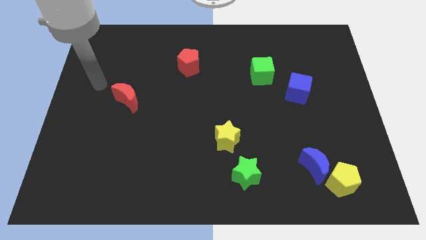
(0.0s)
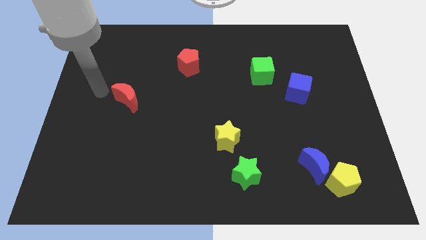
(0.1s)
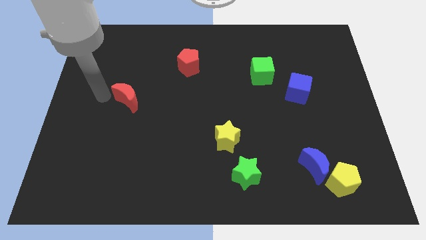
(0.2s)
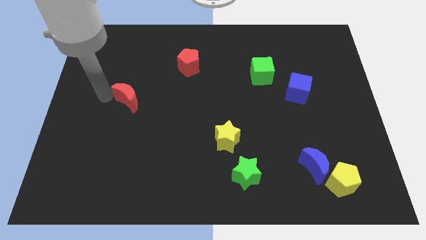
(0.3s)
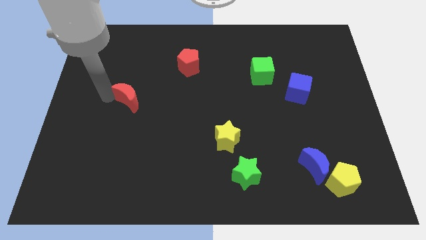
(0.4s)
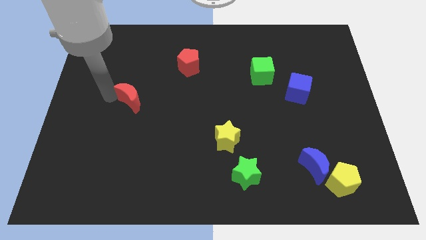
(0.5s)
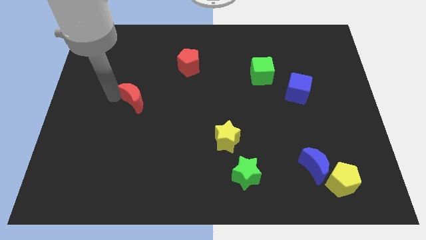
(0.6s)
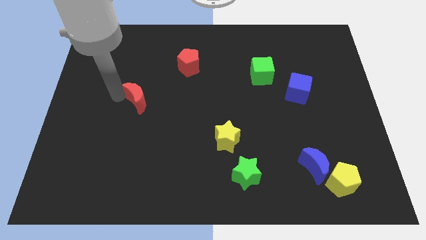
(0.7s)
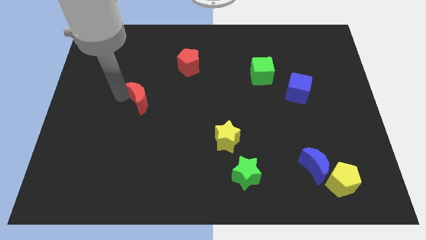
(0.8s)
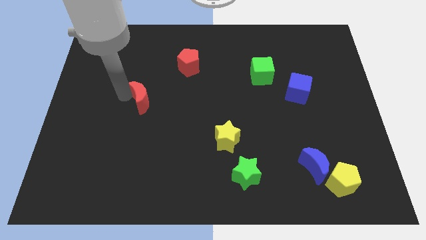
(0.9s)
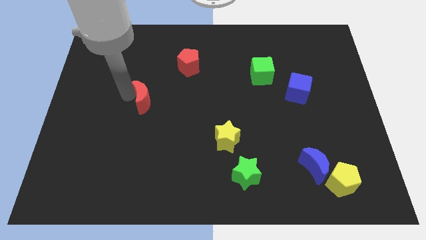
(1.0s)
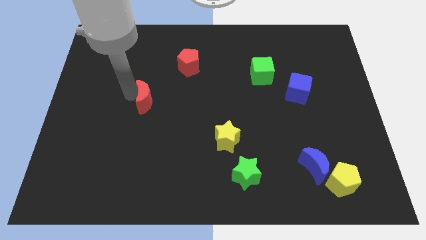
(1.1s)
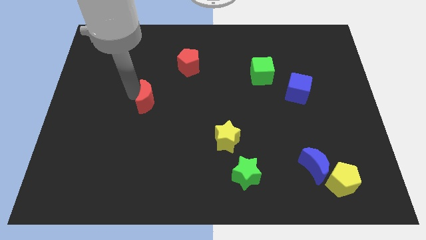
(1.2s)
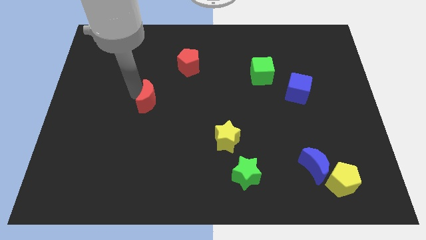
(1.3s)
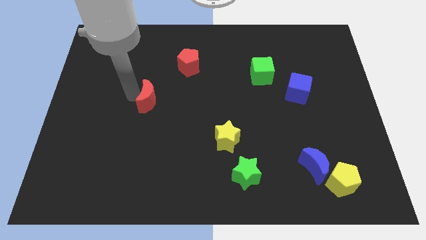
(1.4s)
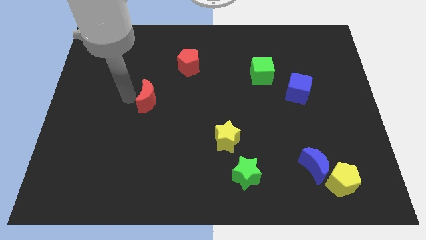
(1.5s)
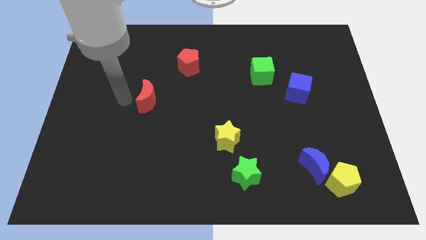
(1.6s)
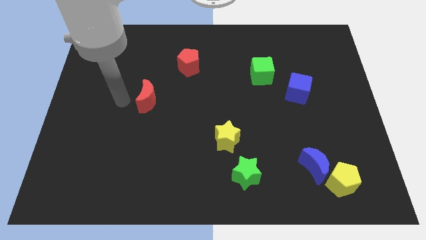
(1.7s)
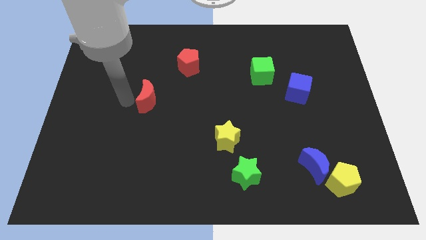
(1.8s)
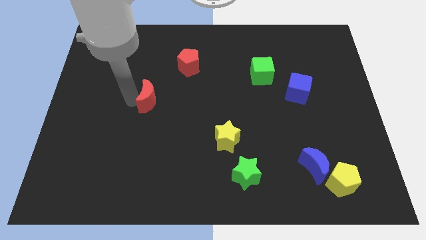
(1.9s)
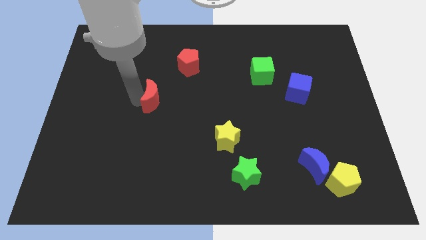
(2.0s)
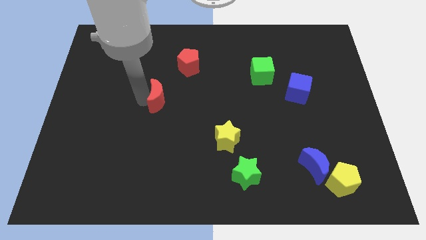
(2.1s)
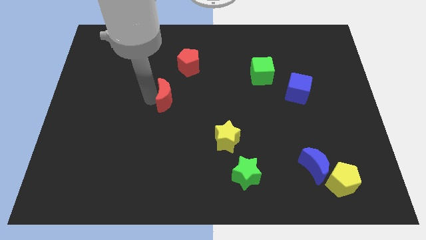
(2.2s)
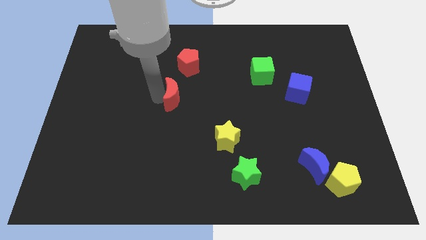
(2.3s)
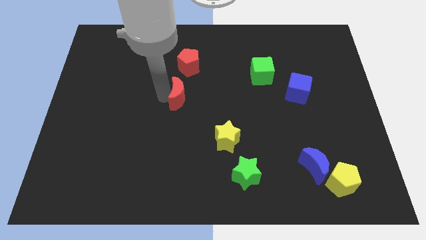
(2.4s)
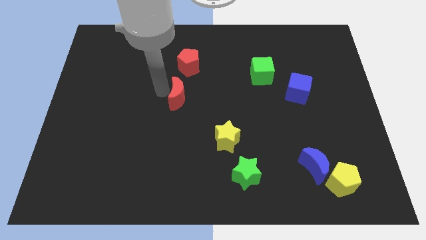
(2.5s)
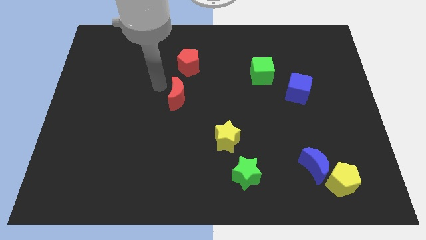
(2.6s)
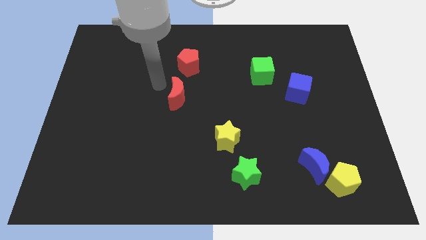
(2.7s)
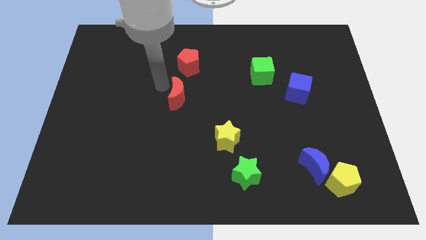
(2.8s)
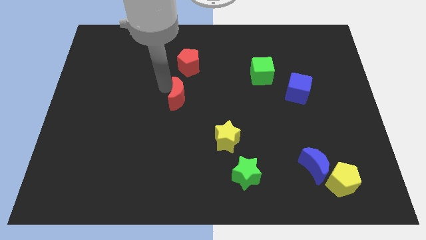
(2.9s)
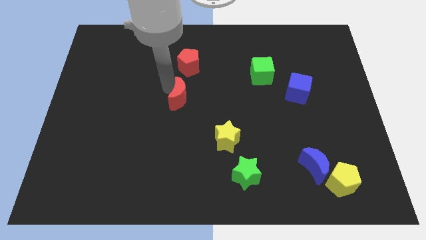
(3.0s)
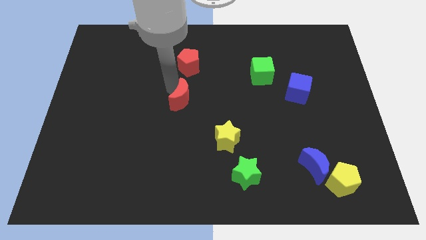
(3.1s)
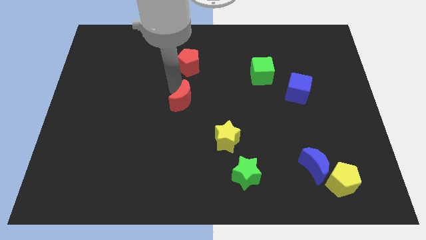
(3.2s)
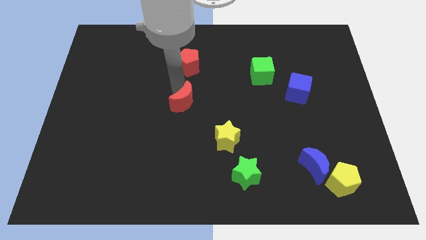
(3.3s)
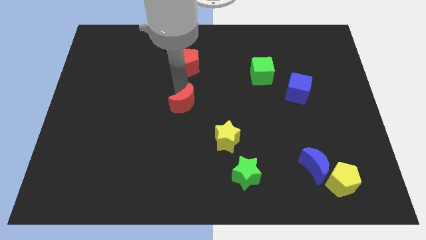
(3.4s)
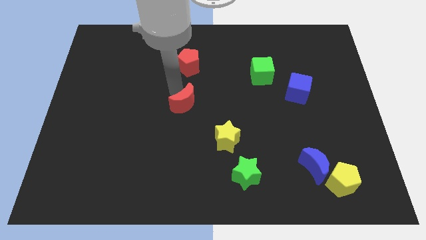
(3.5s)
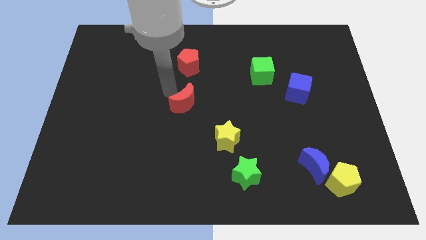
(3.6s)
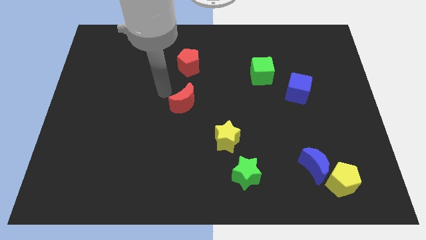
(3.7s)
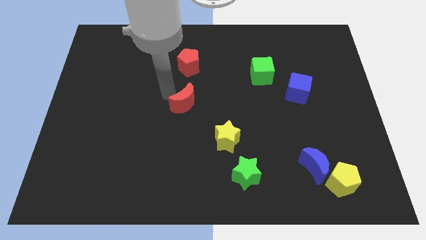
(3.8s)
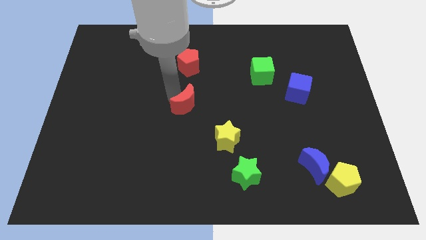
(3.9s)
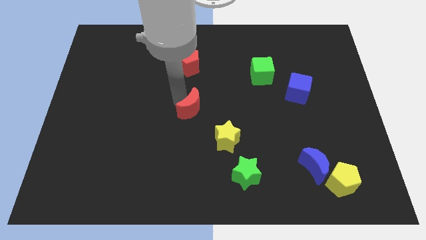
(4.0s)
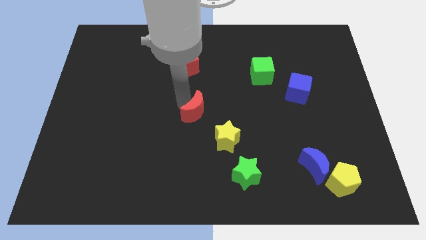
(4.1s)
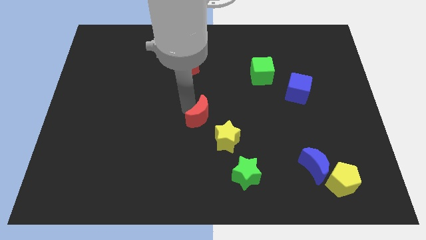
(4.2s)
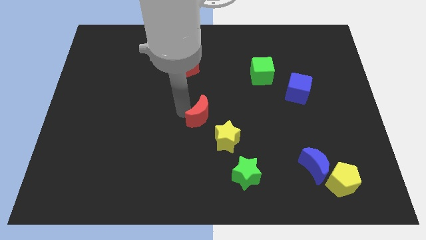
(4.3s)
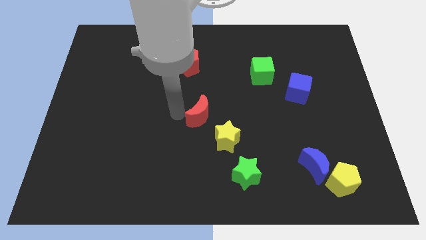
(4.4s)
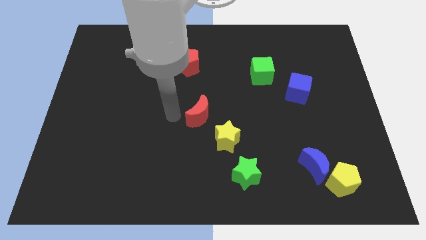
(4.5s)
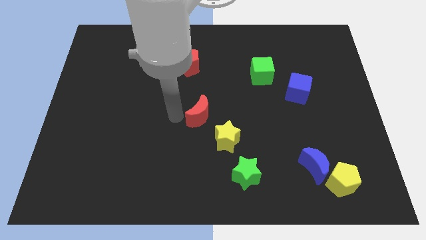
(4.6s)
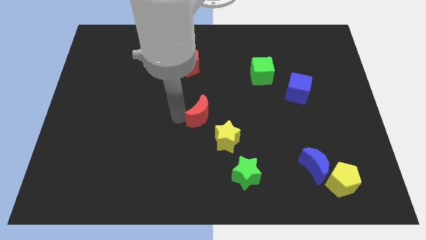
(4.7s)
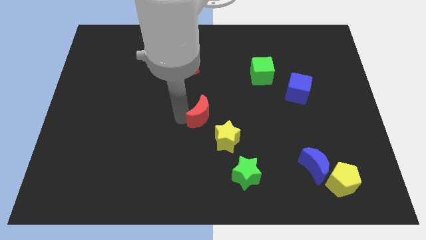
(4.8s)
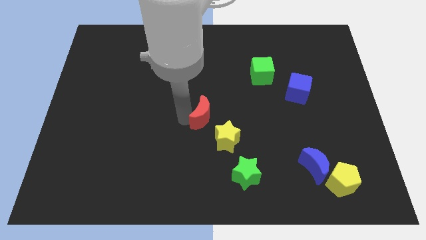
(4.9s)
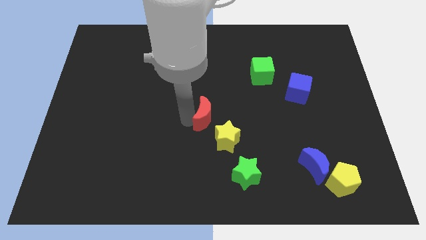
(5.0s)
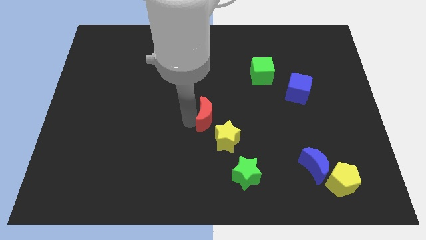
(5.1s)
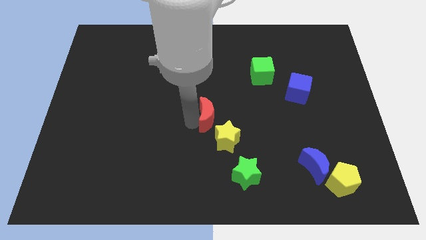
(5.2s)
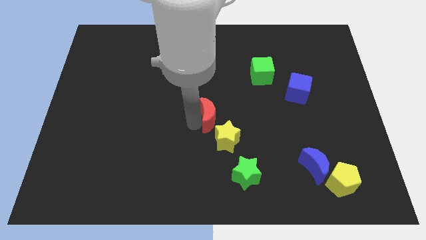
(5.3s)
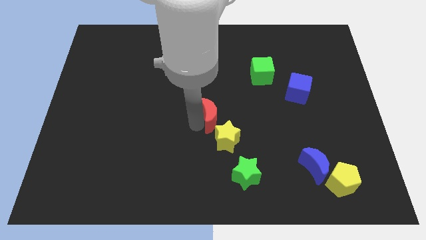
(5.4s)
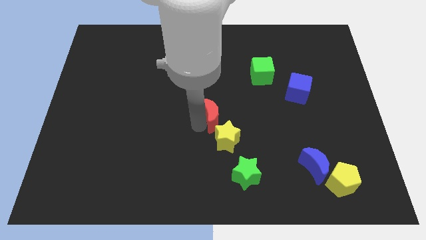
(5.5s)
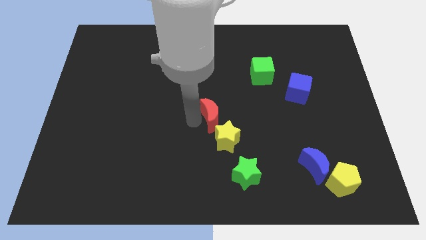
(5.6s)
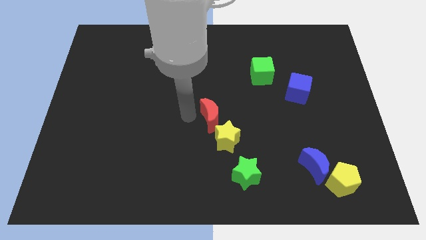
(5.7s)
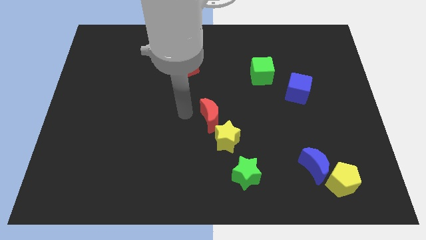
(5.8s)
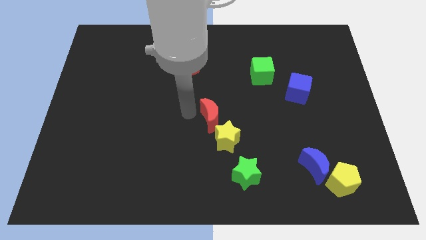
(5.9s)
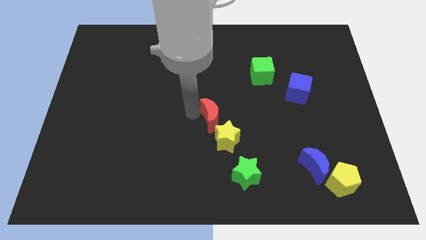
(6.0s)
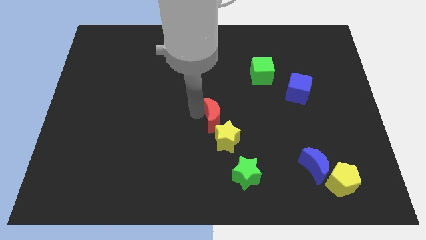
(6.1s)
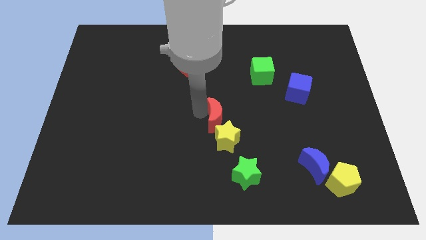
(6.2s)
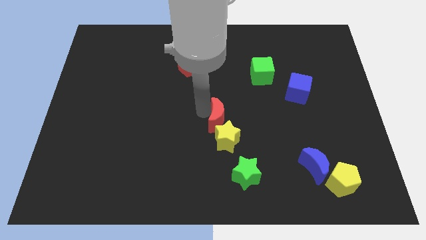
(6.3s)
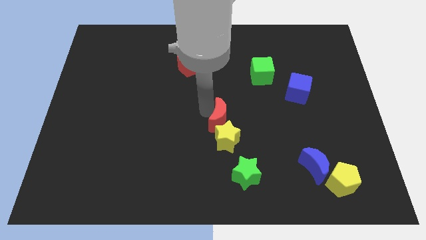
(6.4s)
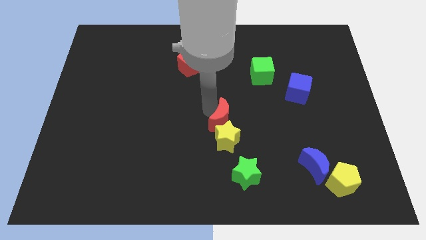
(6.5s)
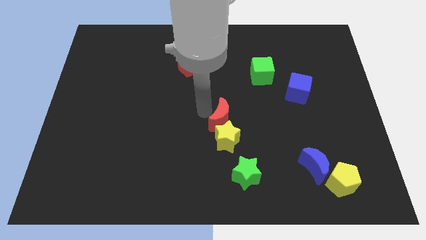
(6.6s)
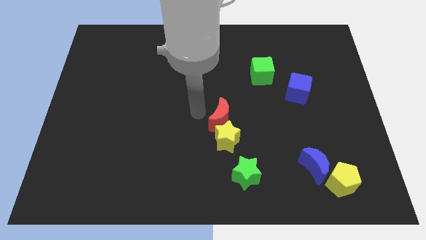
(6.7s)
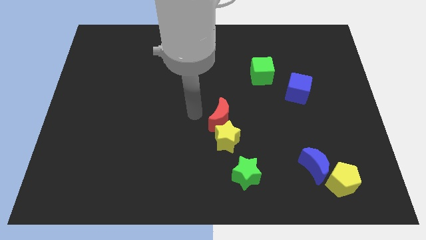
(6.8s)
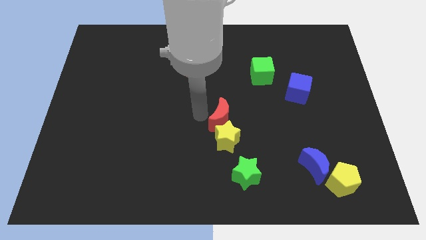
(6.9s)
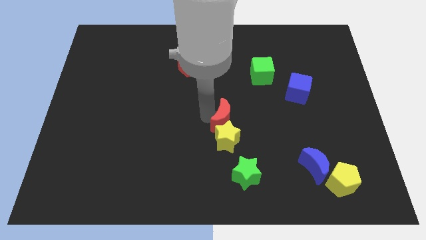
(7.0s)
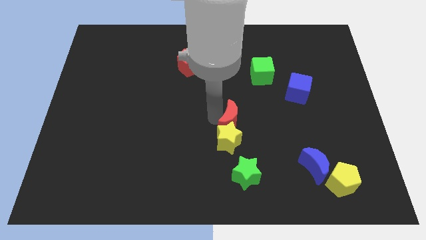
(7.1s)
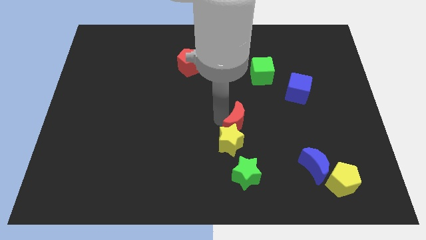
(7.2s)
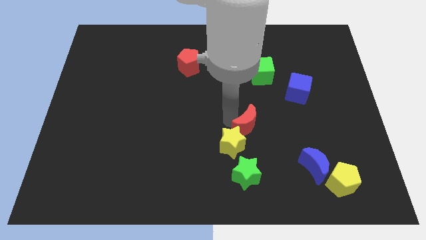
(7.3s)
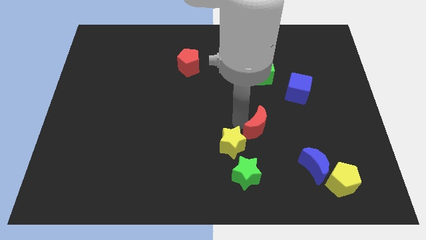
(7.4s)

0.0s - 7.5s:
move the red moon right of the yellow star
